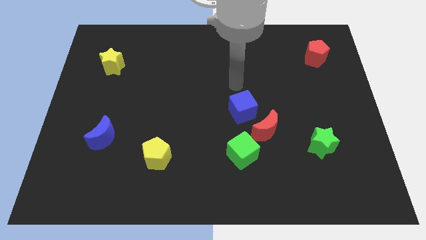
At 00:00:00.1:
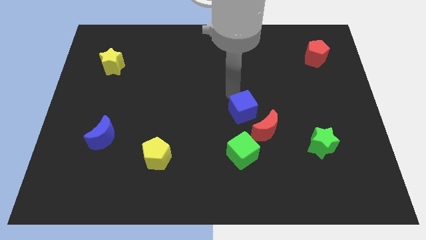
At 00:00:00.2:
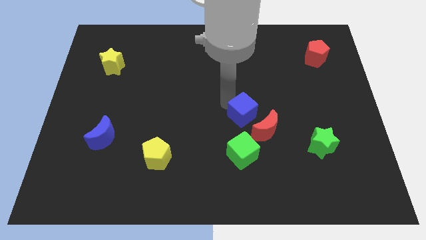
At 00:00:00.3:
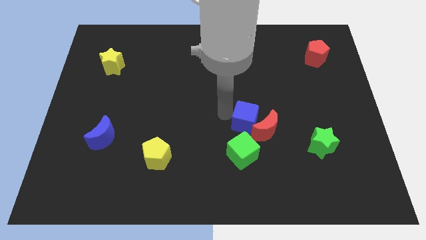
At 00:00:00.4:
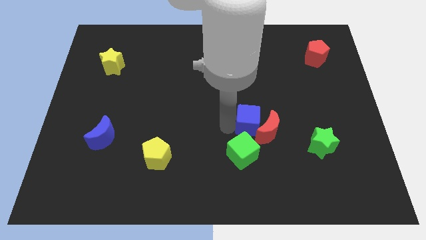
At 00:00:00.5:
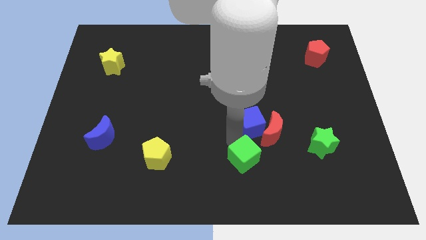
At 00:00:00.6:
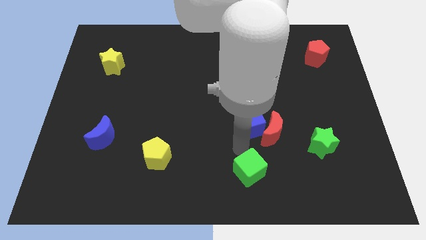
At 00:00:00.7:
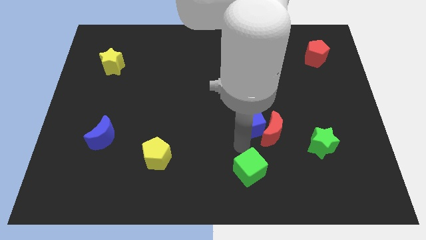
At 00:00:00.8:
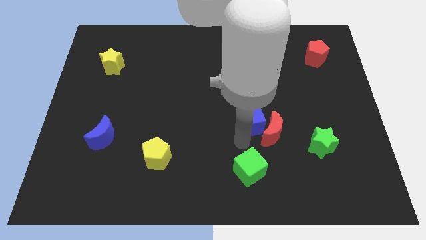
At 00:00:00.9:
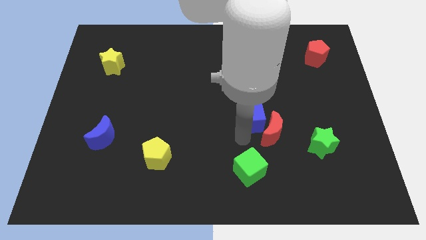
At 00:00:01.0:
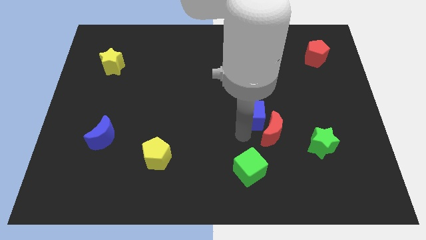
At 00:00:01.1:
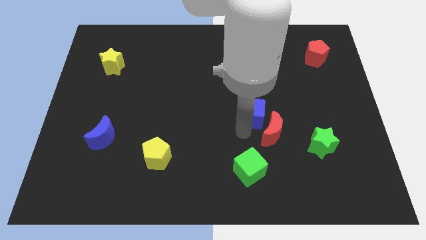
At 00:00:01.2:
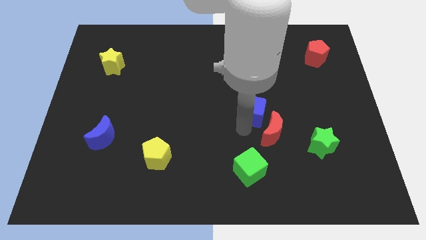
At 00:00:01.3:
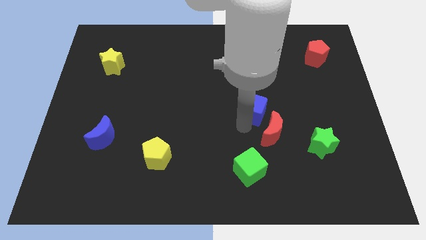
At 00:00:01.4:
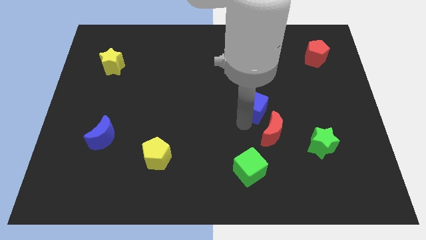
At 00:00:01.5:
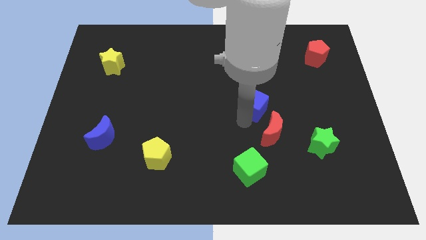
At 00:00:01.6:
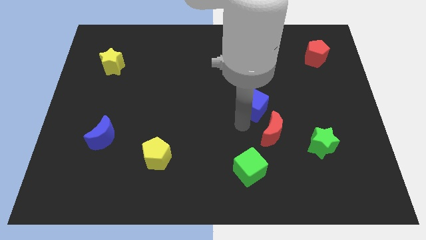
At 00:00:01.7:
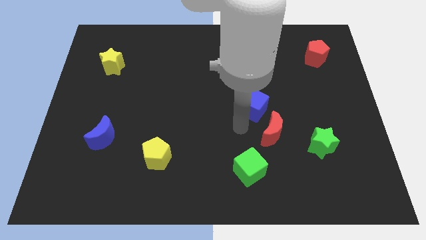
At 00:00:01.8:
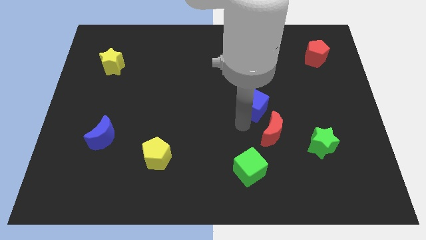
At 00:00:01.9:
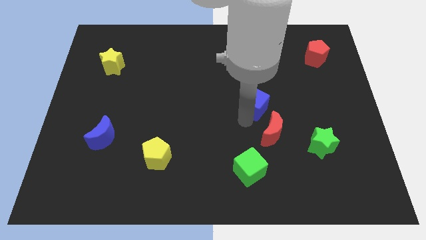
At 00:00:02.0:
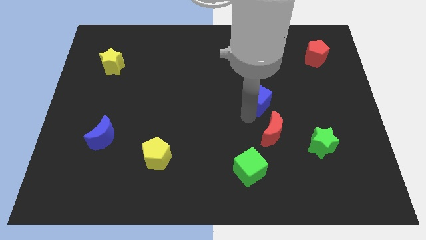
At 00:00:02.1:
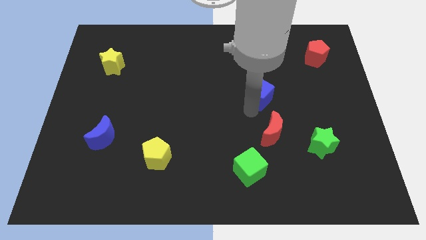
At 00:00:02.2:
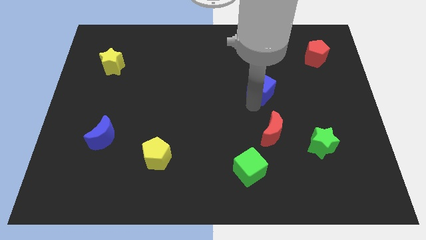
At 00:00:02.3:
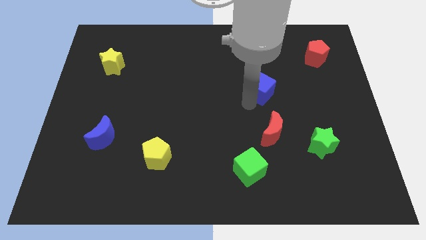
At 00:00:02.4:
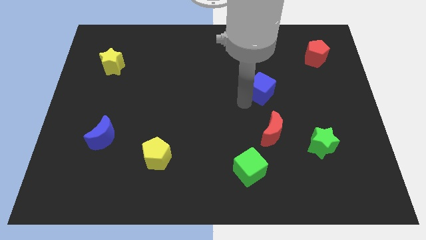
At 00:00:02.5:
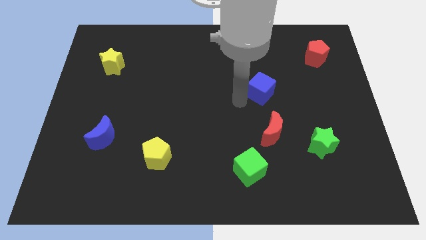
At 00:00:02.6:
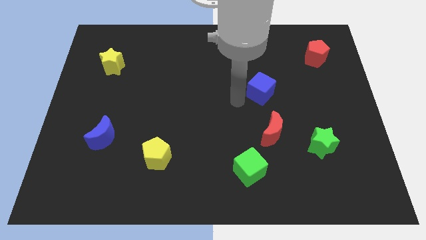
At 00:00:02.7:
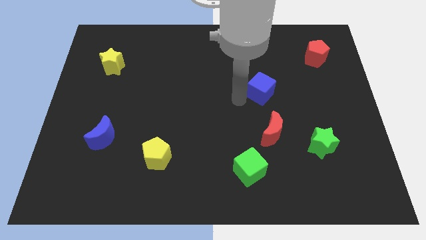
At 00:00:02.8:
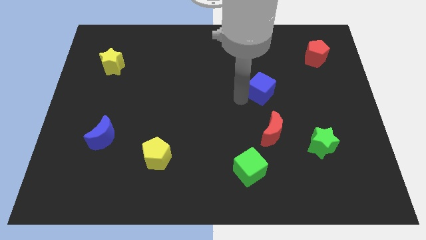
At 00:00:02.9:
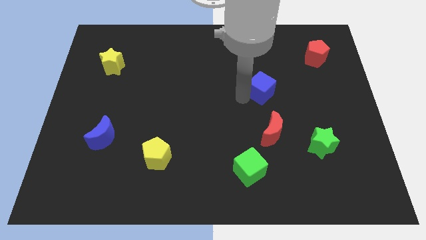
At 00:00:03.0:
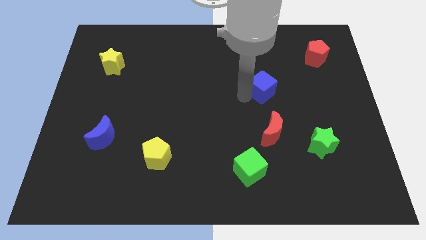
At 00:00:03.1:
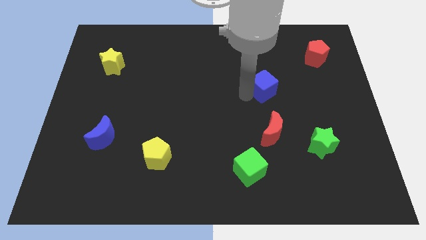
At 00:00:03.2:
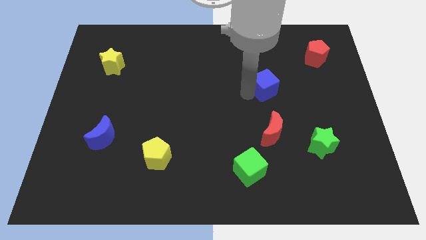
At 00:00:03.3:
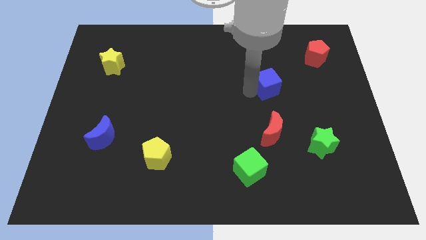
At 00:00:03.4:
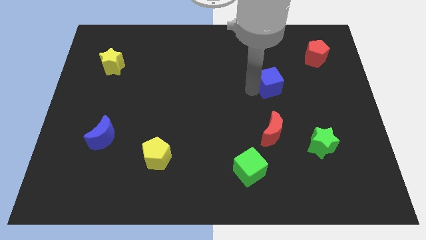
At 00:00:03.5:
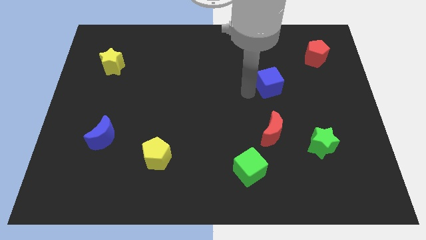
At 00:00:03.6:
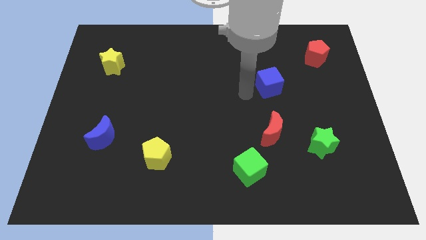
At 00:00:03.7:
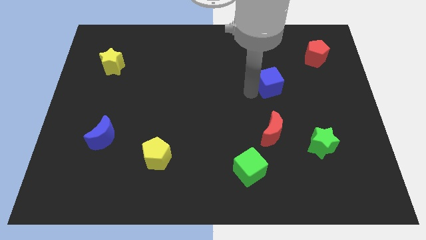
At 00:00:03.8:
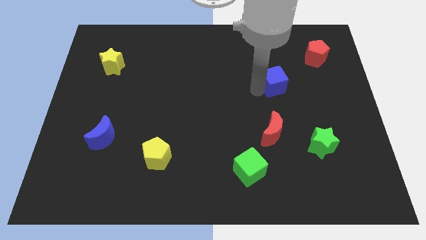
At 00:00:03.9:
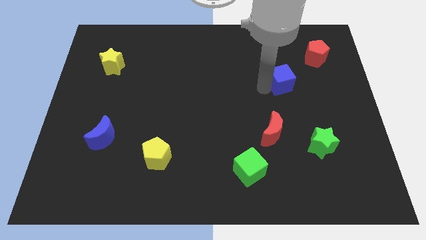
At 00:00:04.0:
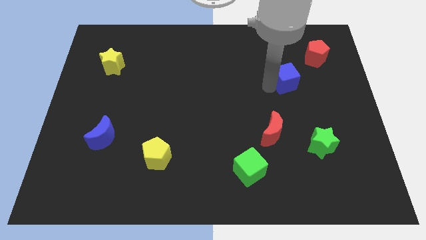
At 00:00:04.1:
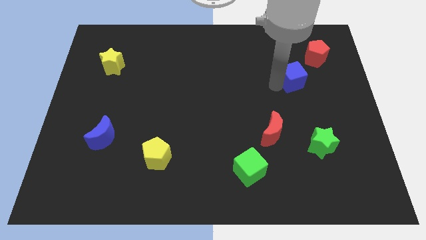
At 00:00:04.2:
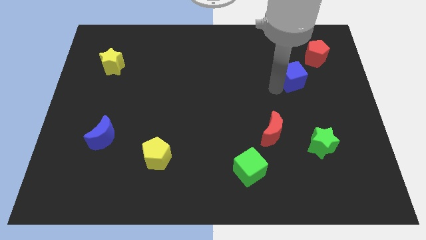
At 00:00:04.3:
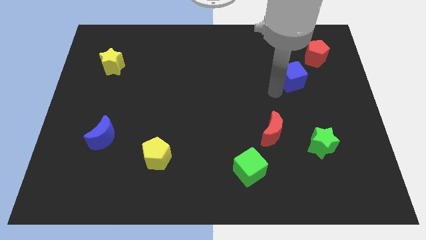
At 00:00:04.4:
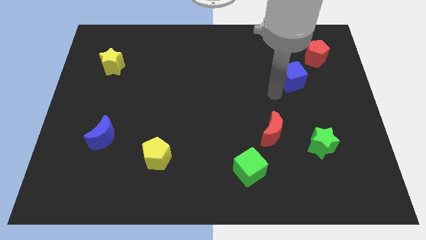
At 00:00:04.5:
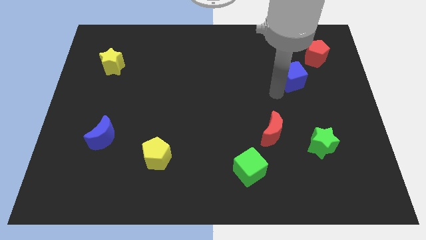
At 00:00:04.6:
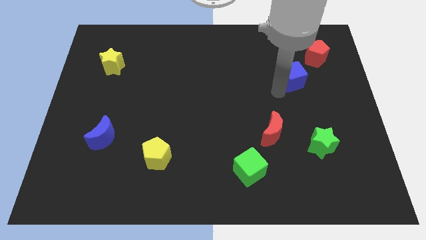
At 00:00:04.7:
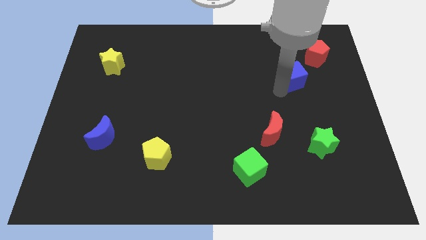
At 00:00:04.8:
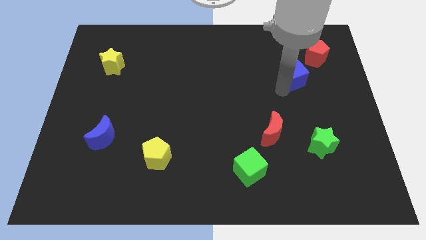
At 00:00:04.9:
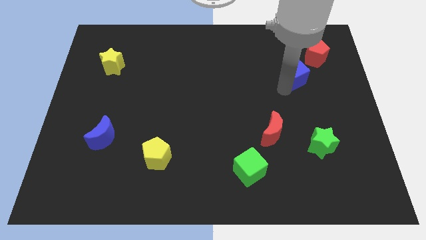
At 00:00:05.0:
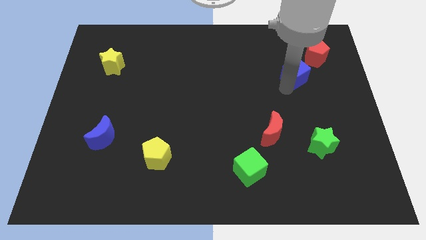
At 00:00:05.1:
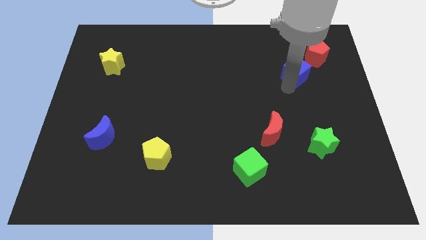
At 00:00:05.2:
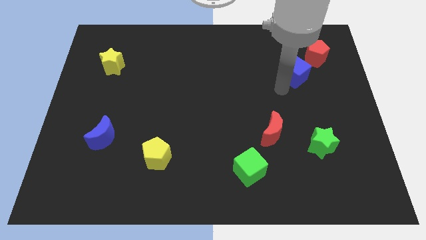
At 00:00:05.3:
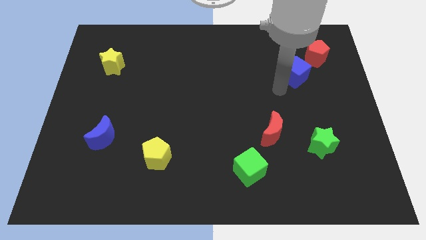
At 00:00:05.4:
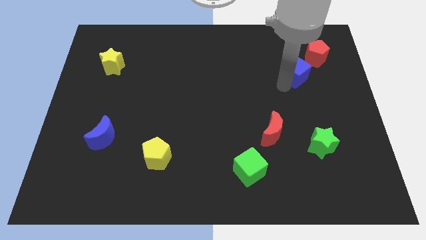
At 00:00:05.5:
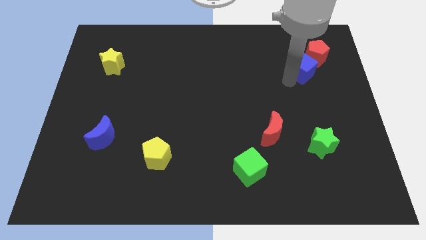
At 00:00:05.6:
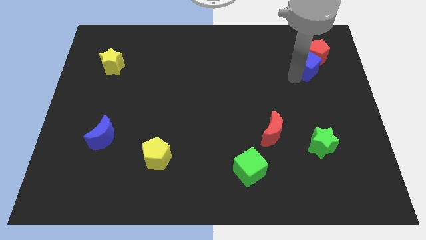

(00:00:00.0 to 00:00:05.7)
slide the blue cube close to the red pentagon

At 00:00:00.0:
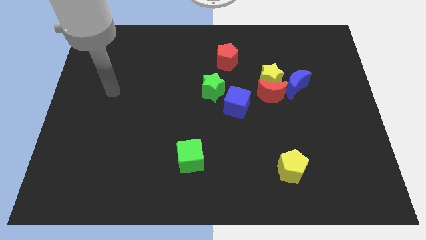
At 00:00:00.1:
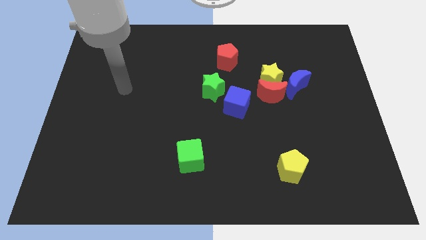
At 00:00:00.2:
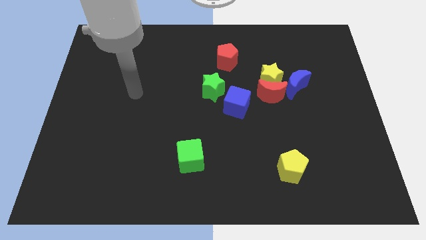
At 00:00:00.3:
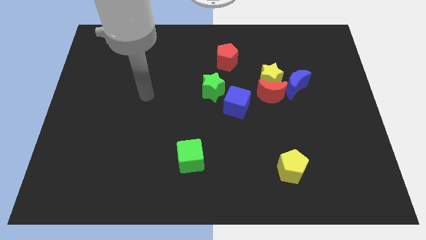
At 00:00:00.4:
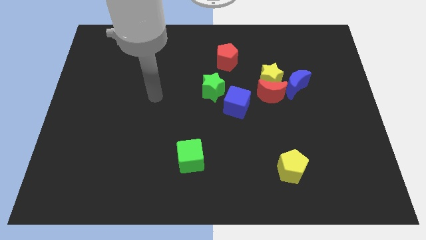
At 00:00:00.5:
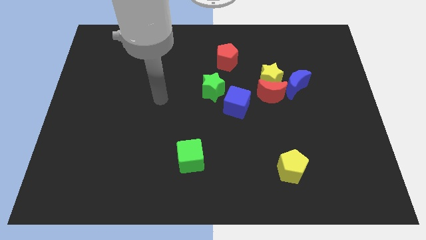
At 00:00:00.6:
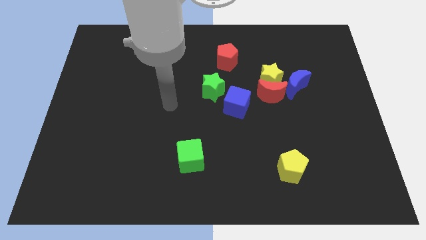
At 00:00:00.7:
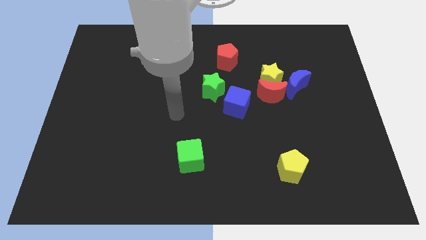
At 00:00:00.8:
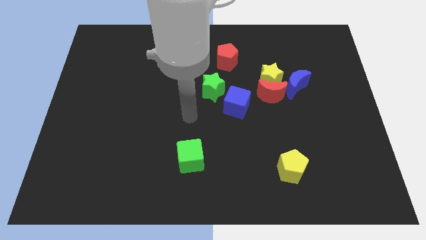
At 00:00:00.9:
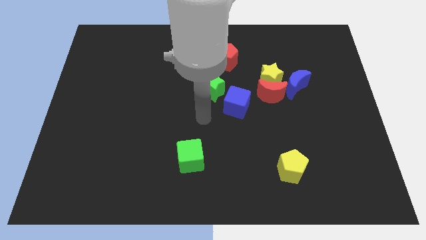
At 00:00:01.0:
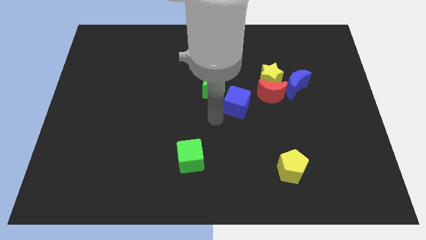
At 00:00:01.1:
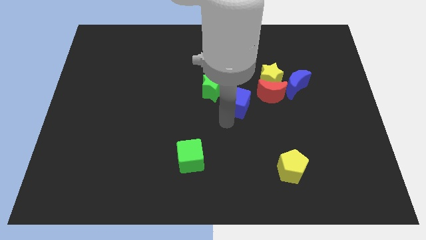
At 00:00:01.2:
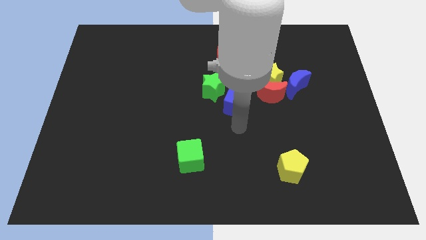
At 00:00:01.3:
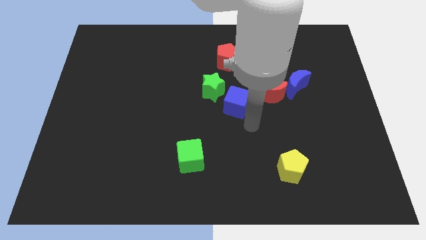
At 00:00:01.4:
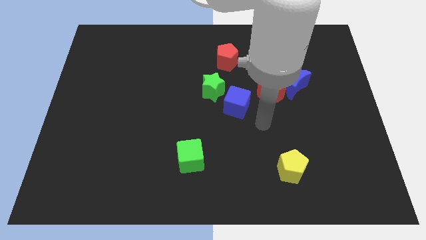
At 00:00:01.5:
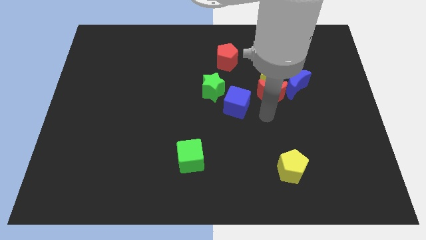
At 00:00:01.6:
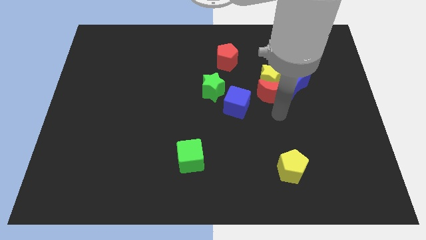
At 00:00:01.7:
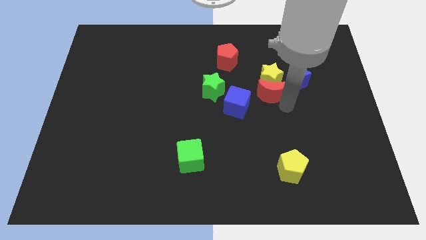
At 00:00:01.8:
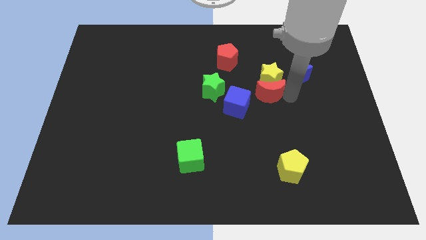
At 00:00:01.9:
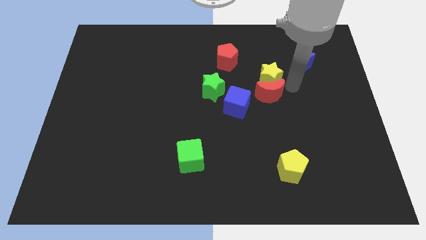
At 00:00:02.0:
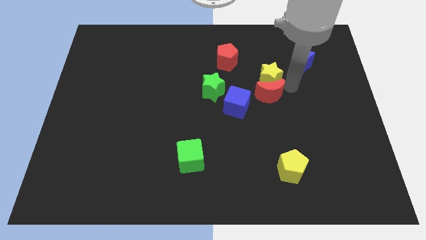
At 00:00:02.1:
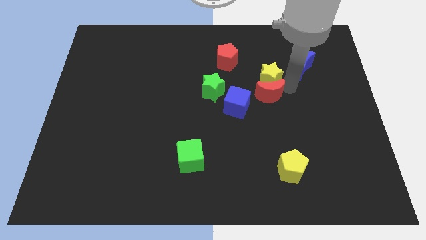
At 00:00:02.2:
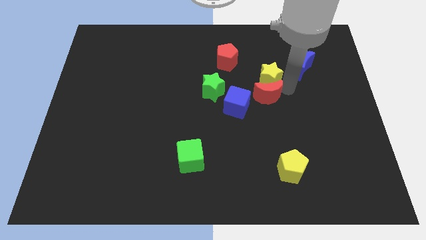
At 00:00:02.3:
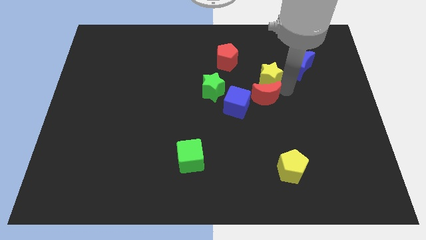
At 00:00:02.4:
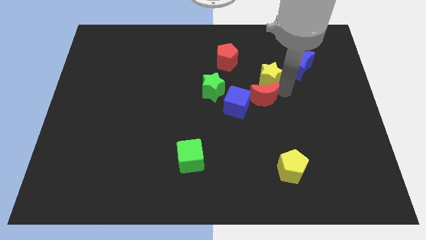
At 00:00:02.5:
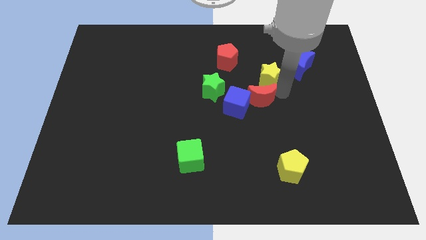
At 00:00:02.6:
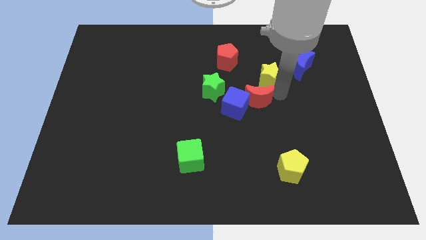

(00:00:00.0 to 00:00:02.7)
move the red moon towards the blue cube
